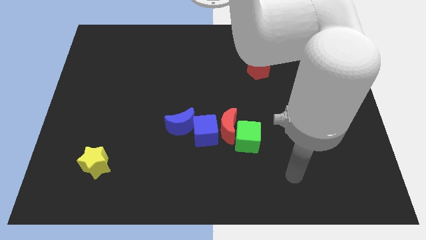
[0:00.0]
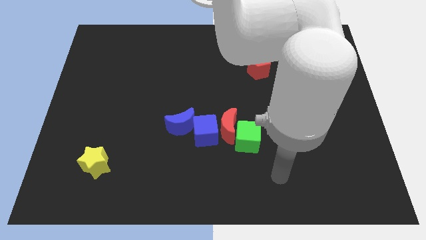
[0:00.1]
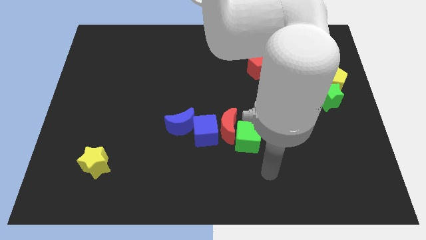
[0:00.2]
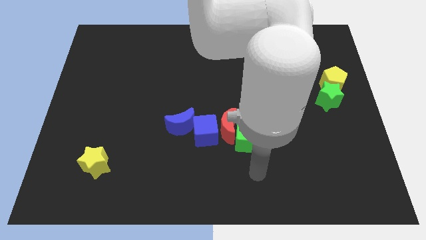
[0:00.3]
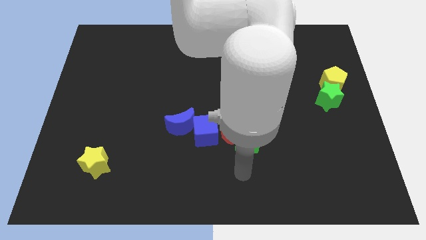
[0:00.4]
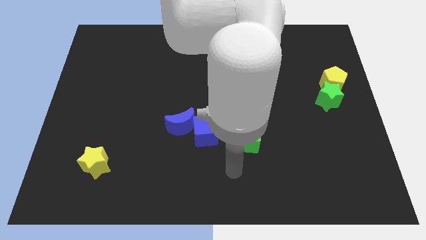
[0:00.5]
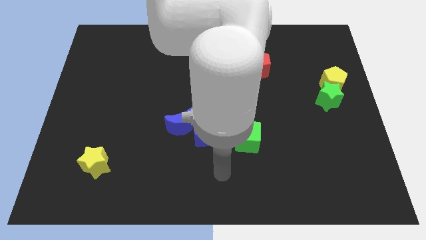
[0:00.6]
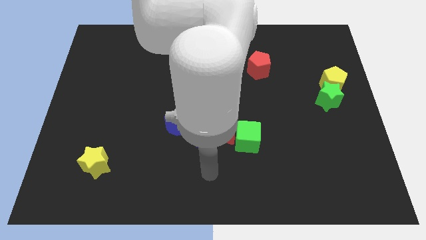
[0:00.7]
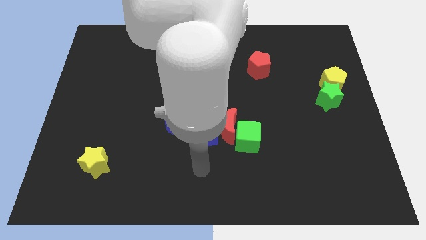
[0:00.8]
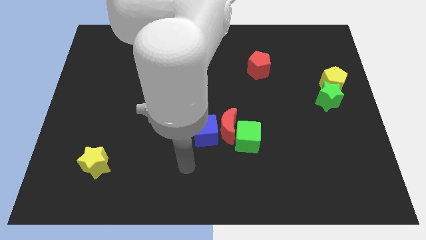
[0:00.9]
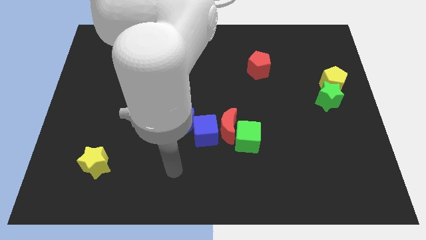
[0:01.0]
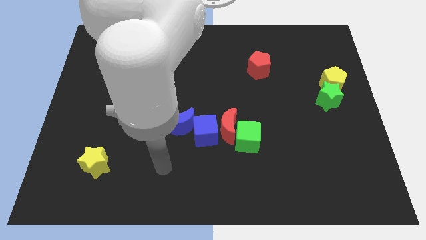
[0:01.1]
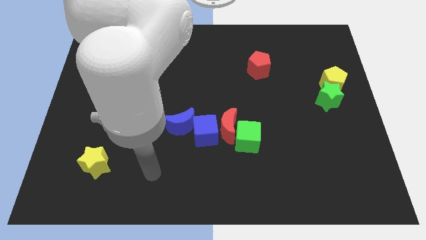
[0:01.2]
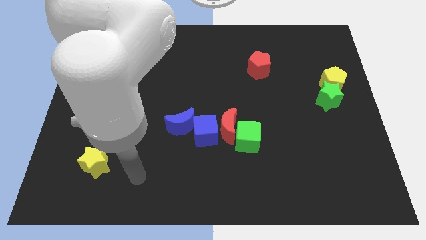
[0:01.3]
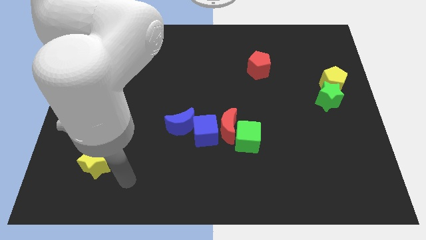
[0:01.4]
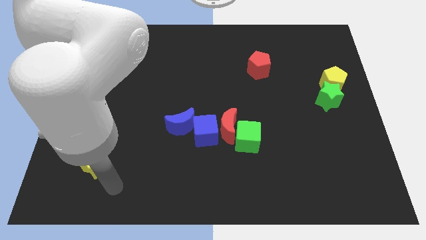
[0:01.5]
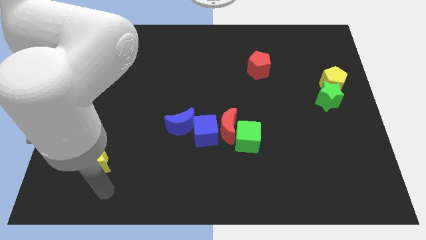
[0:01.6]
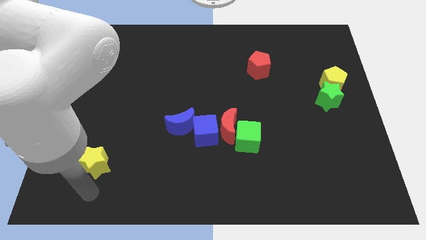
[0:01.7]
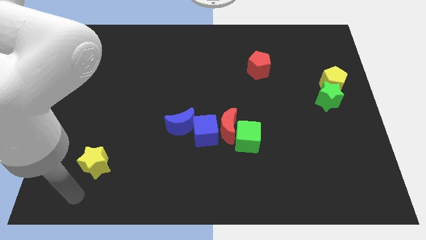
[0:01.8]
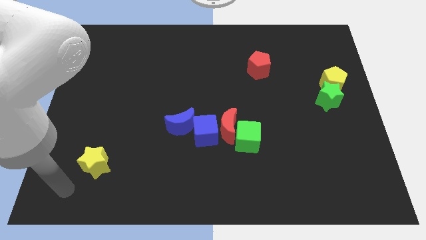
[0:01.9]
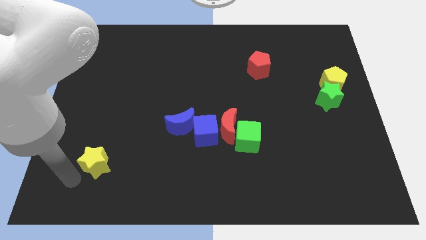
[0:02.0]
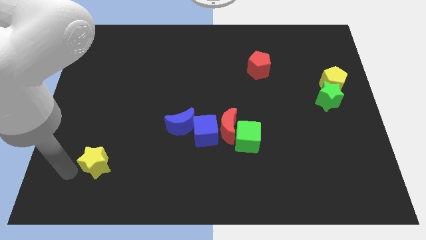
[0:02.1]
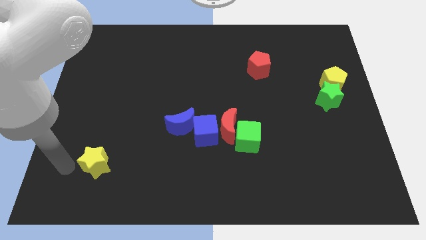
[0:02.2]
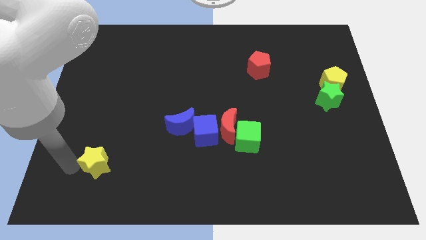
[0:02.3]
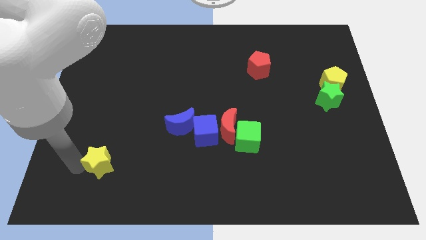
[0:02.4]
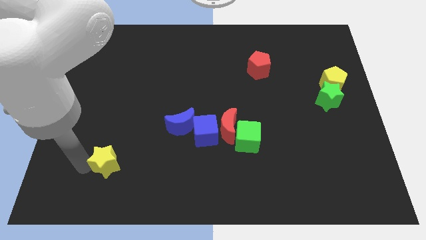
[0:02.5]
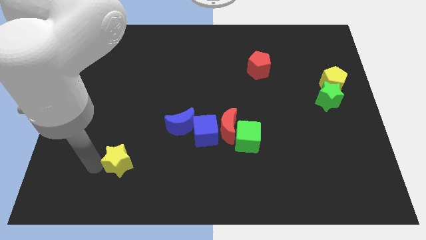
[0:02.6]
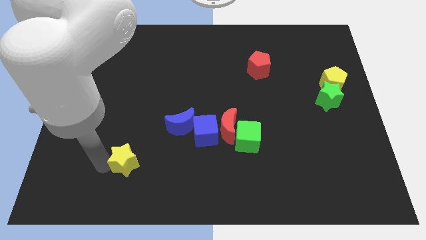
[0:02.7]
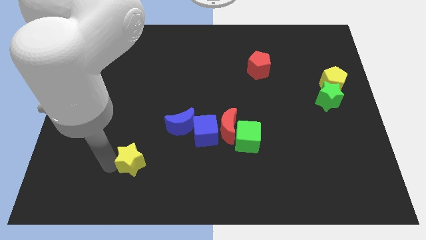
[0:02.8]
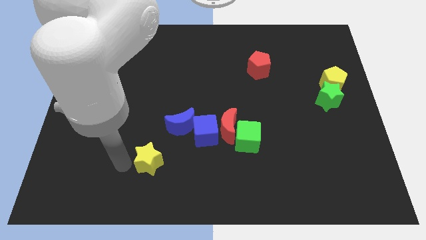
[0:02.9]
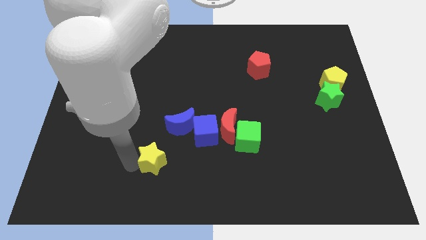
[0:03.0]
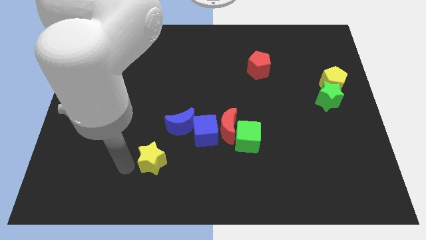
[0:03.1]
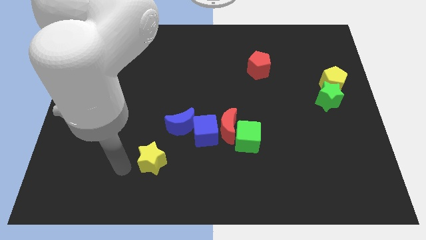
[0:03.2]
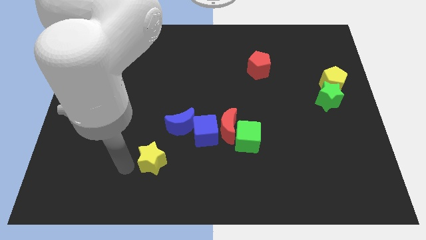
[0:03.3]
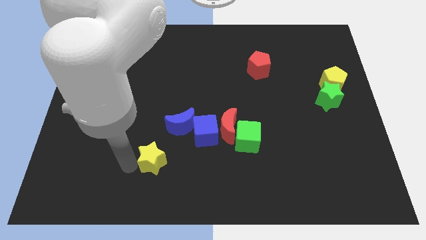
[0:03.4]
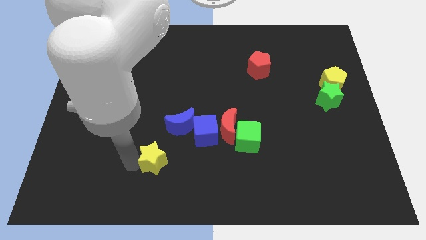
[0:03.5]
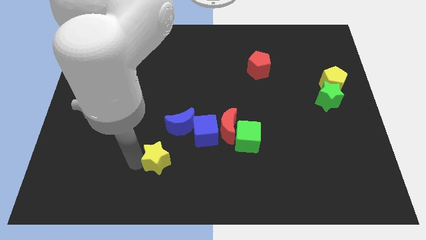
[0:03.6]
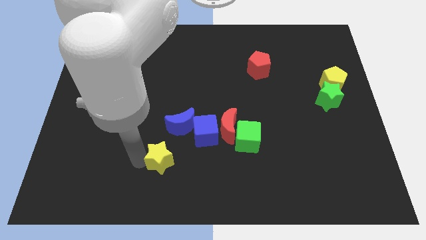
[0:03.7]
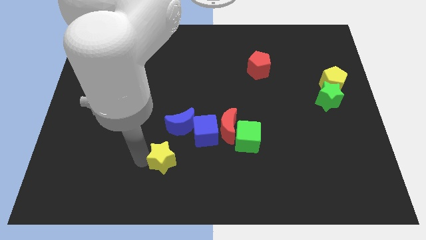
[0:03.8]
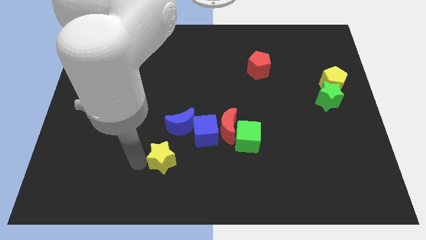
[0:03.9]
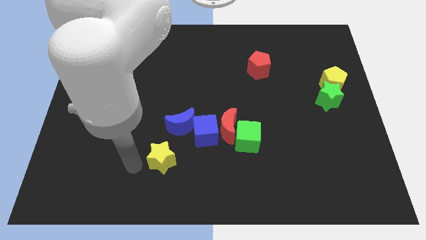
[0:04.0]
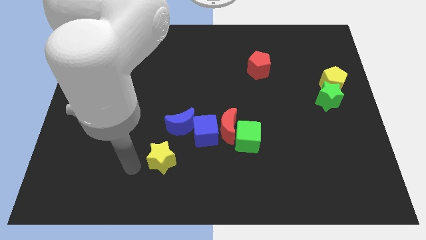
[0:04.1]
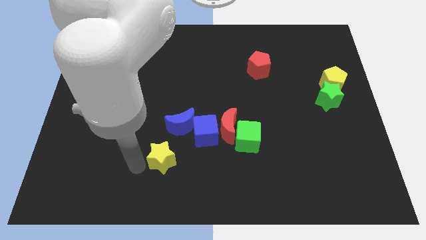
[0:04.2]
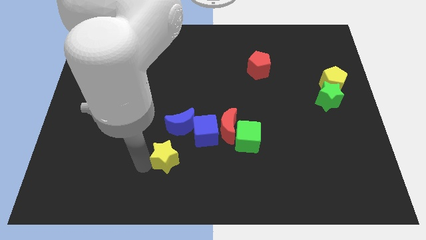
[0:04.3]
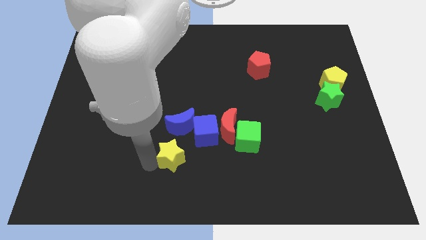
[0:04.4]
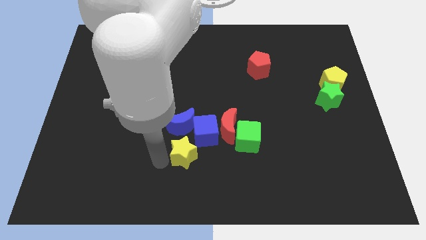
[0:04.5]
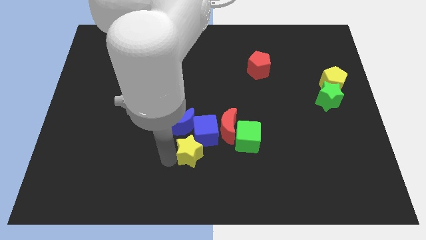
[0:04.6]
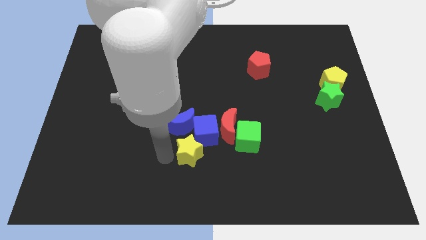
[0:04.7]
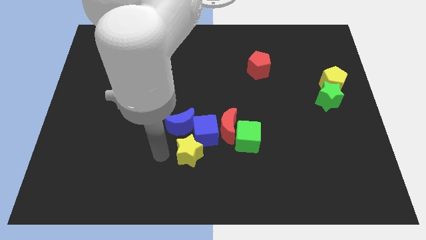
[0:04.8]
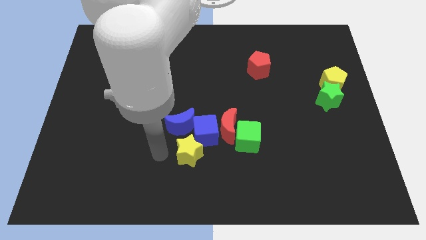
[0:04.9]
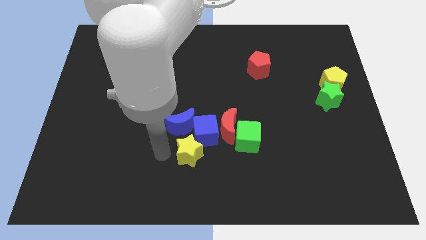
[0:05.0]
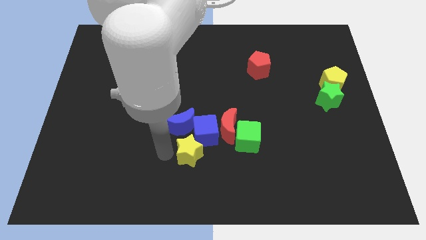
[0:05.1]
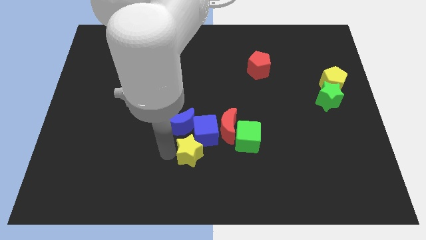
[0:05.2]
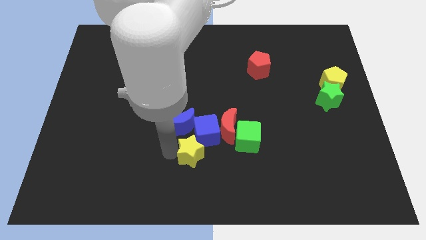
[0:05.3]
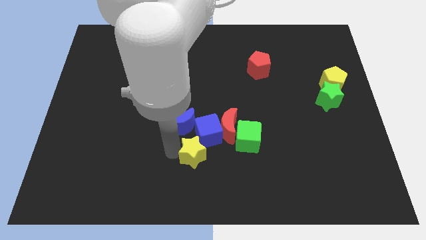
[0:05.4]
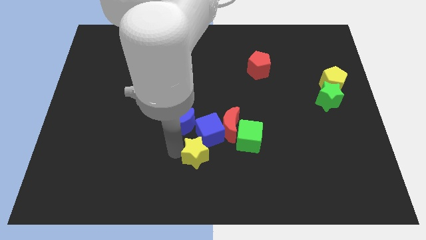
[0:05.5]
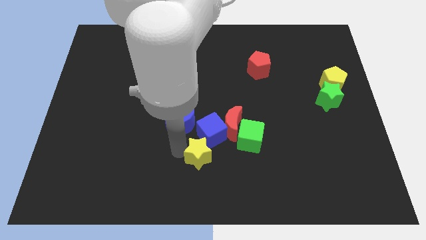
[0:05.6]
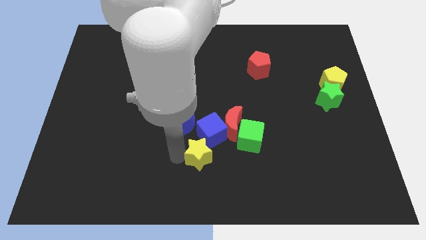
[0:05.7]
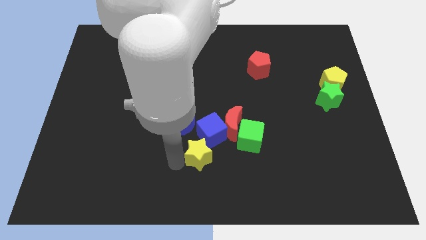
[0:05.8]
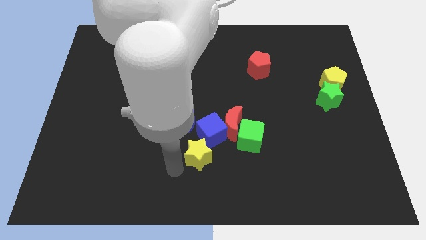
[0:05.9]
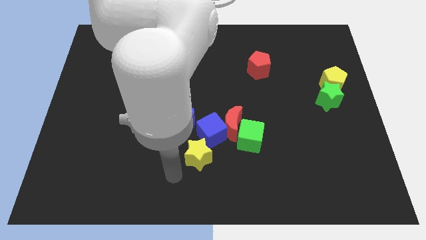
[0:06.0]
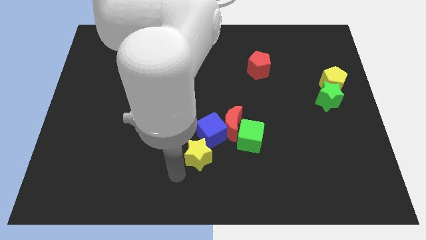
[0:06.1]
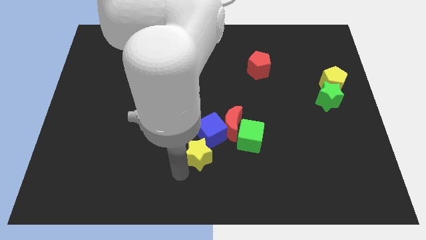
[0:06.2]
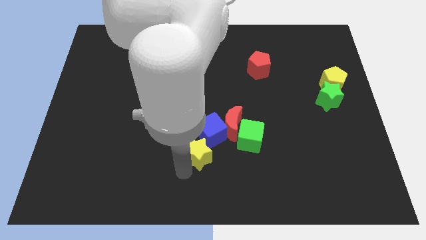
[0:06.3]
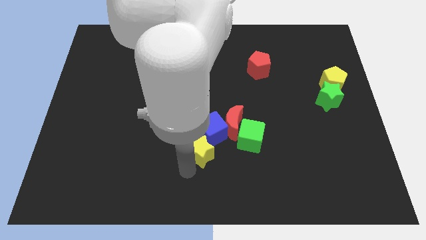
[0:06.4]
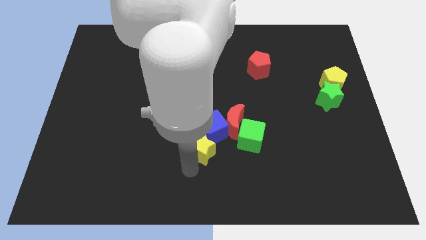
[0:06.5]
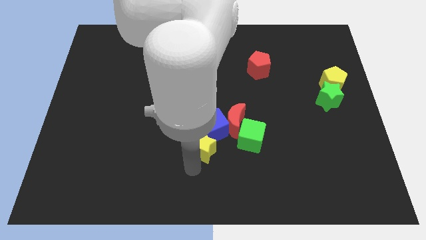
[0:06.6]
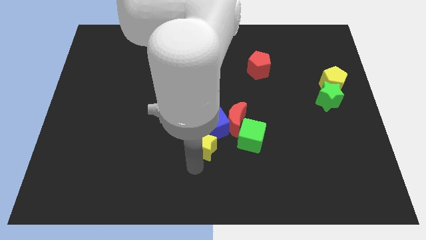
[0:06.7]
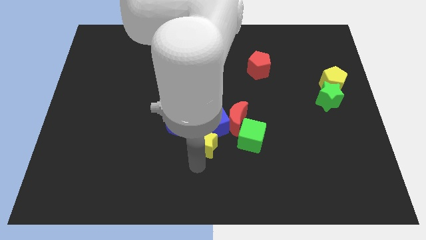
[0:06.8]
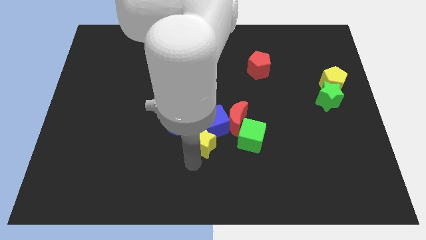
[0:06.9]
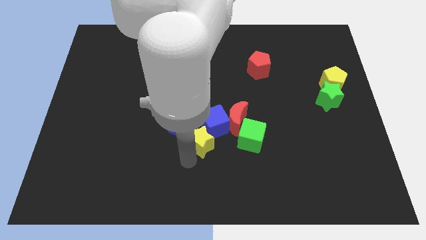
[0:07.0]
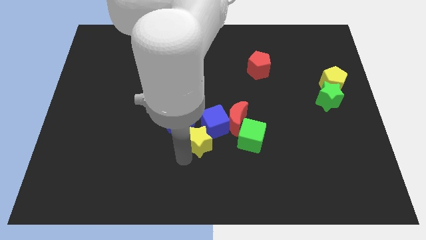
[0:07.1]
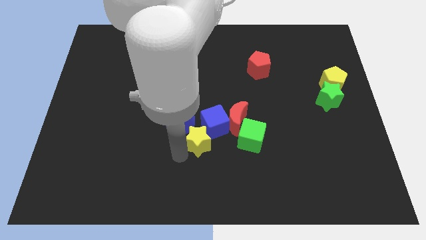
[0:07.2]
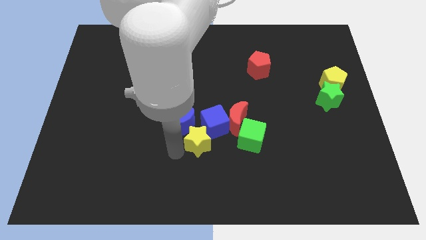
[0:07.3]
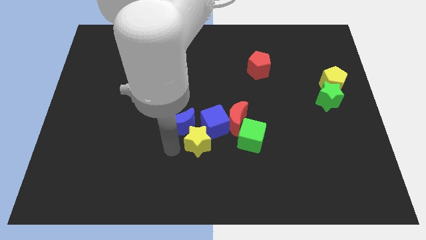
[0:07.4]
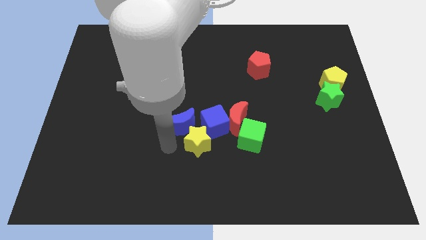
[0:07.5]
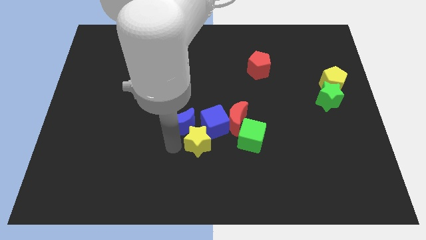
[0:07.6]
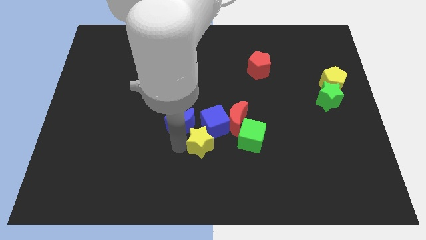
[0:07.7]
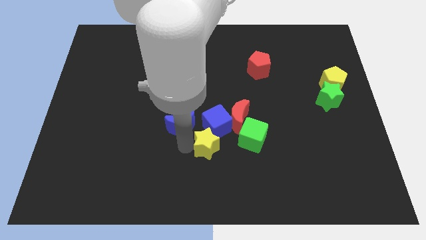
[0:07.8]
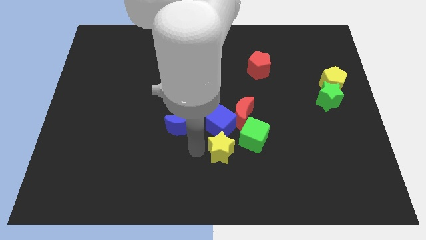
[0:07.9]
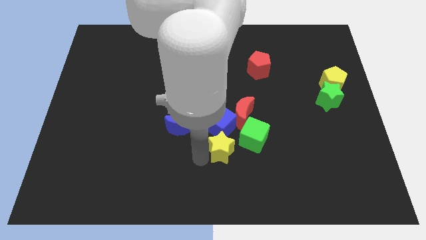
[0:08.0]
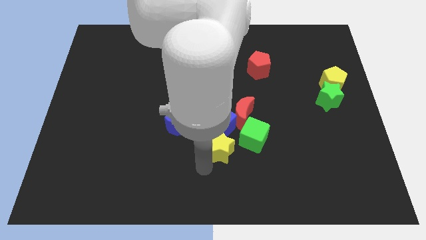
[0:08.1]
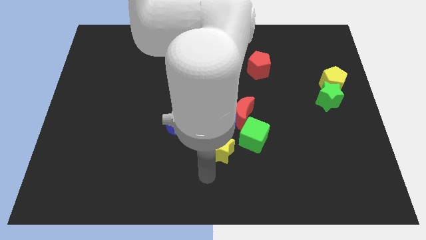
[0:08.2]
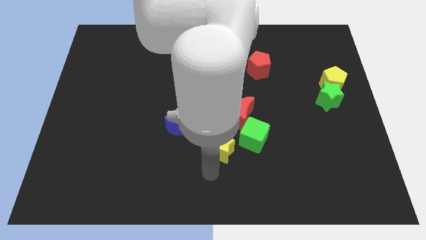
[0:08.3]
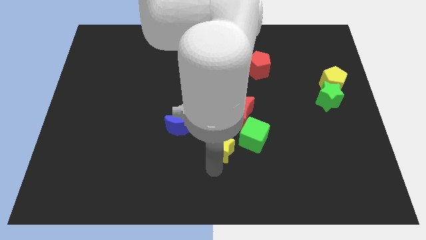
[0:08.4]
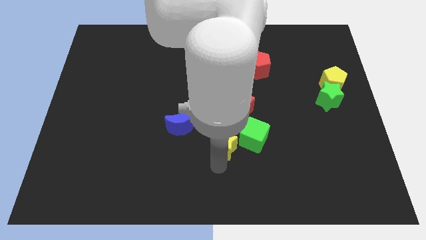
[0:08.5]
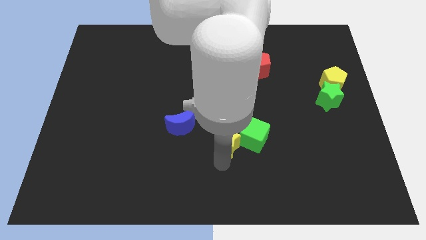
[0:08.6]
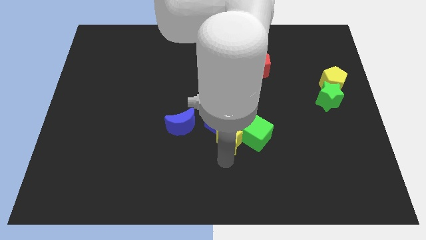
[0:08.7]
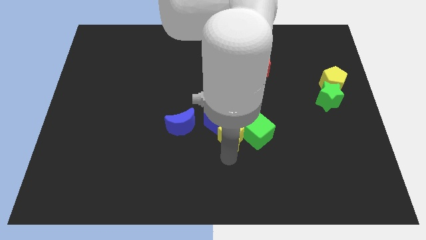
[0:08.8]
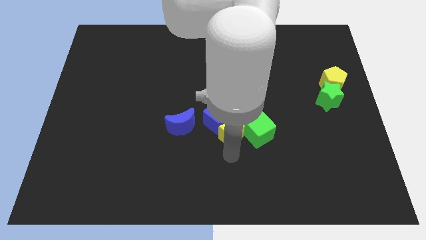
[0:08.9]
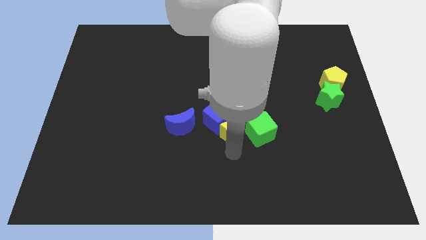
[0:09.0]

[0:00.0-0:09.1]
move the yellow star next to the red moon
